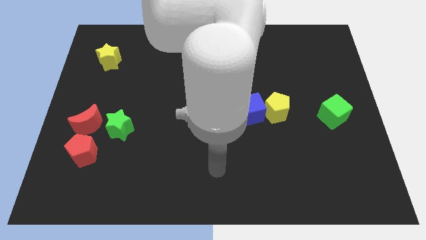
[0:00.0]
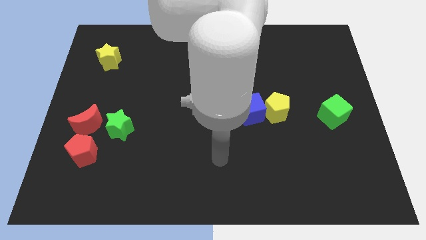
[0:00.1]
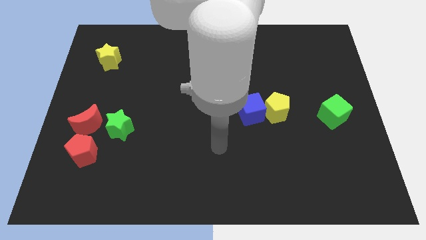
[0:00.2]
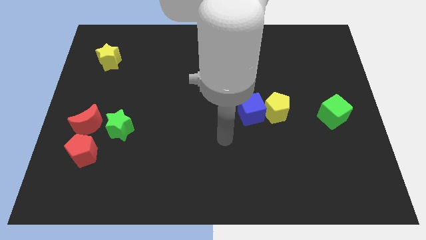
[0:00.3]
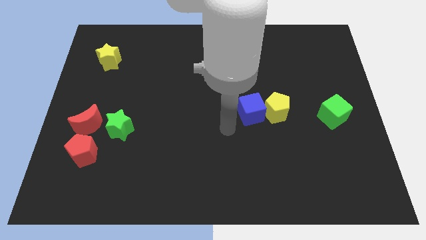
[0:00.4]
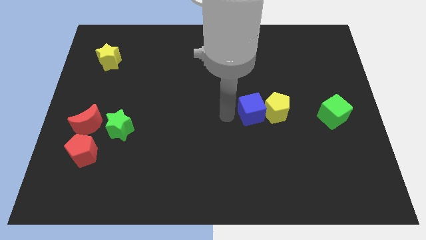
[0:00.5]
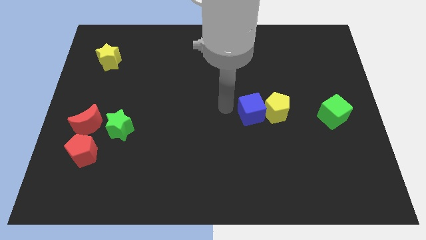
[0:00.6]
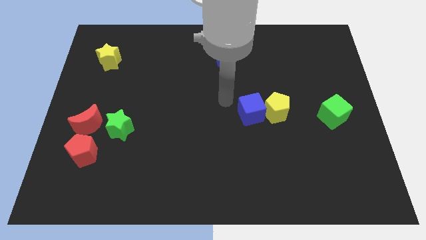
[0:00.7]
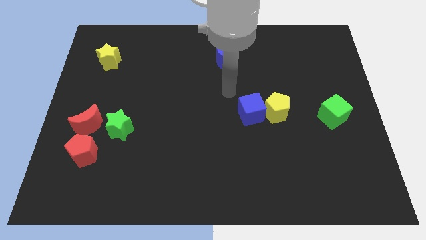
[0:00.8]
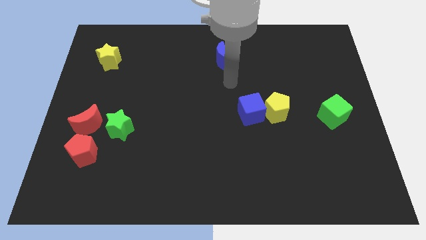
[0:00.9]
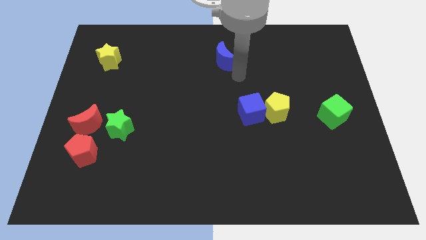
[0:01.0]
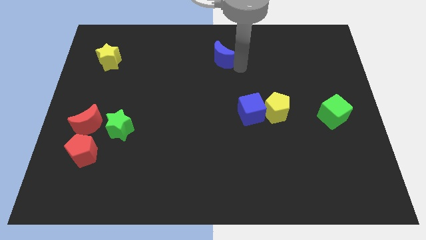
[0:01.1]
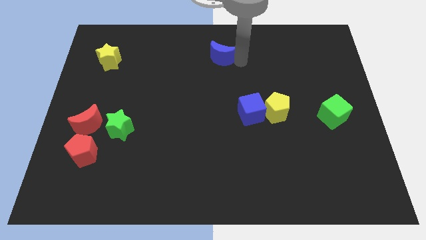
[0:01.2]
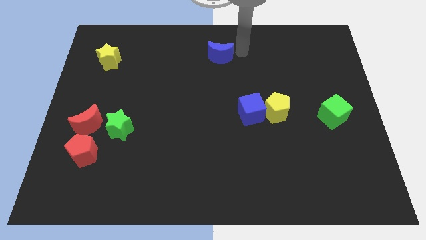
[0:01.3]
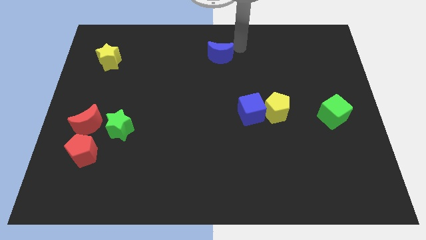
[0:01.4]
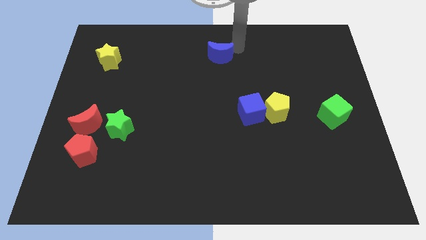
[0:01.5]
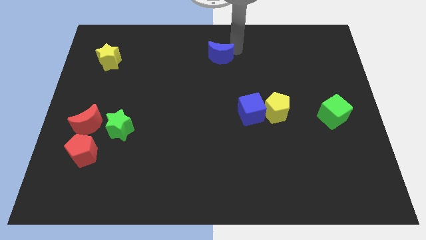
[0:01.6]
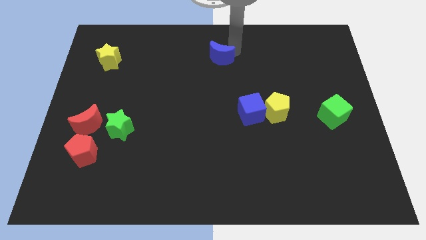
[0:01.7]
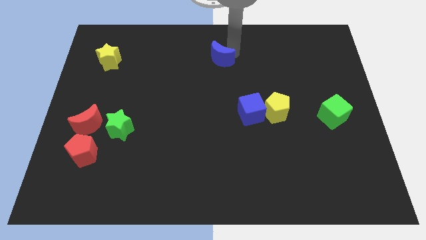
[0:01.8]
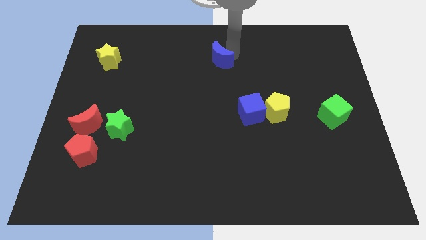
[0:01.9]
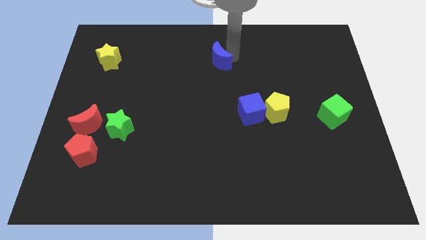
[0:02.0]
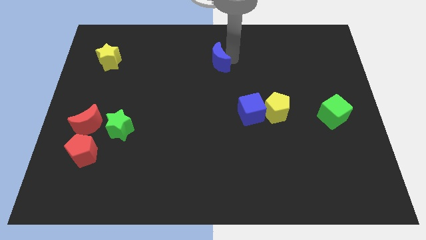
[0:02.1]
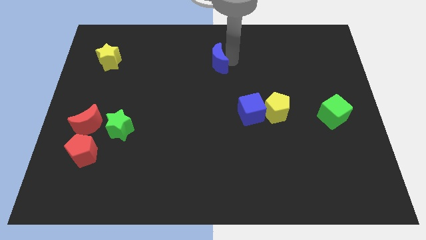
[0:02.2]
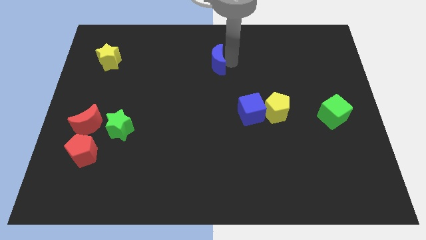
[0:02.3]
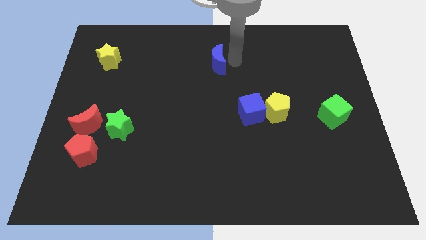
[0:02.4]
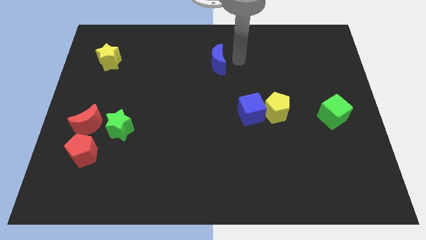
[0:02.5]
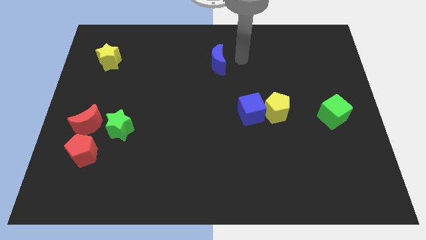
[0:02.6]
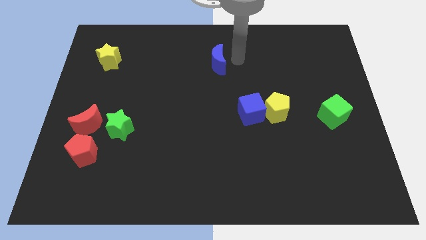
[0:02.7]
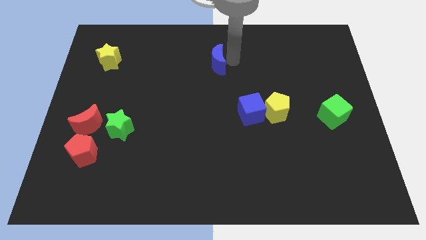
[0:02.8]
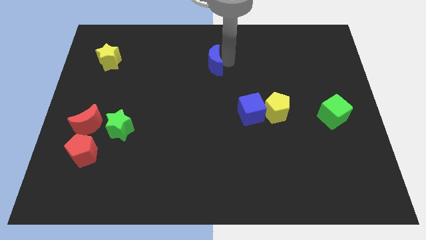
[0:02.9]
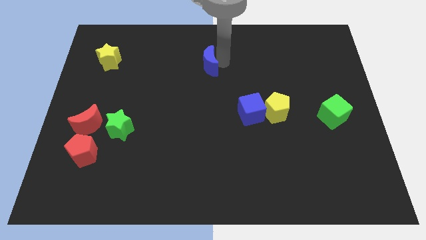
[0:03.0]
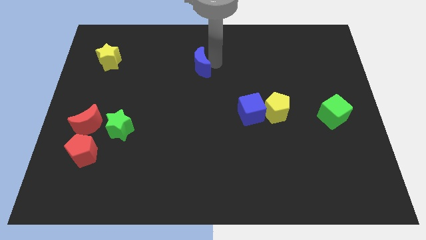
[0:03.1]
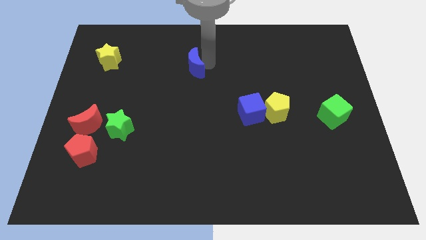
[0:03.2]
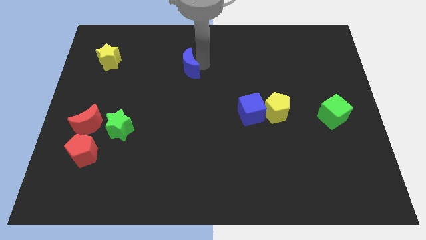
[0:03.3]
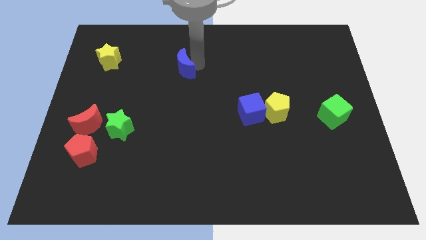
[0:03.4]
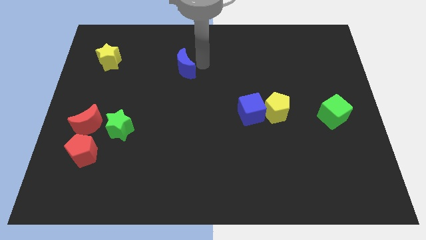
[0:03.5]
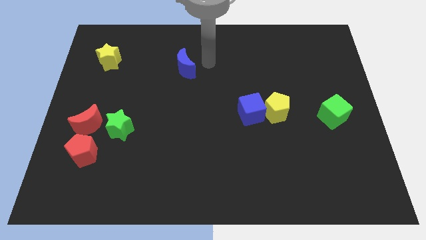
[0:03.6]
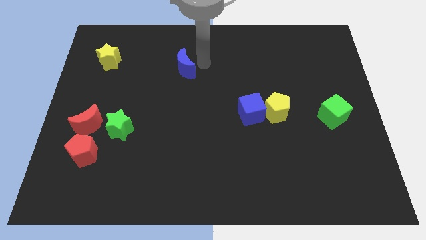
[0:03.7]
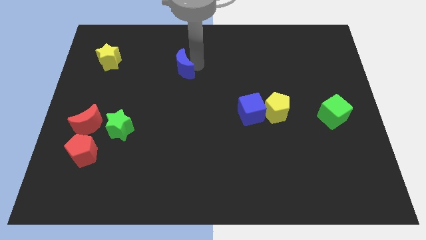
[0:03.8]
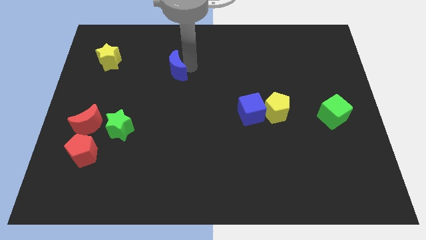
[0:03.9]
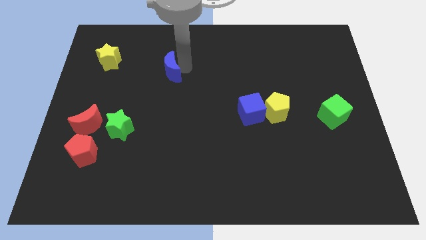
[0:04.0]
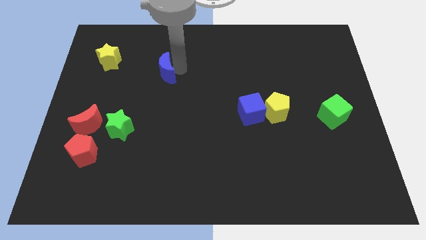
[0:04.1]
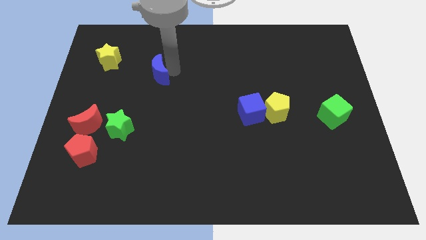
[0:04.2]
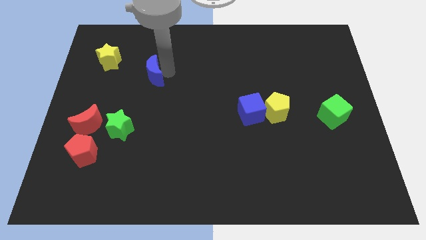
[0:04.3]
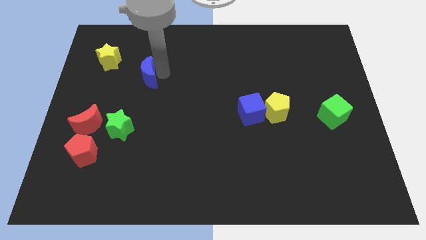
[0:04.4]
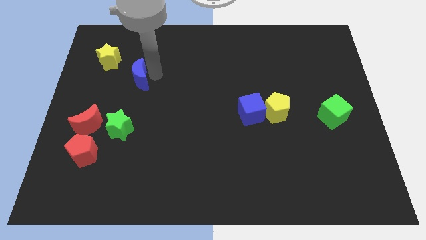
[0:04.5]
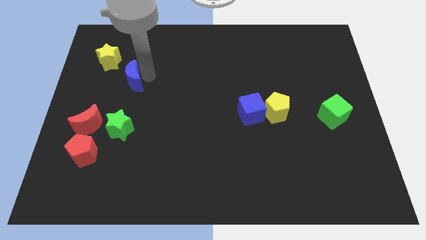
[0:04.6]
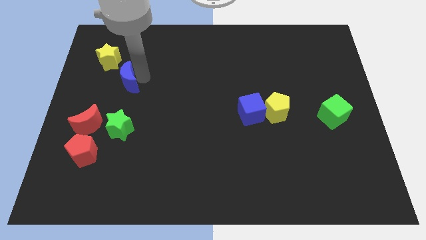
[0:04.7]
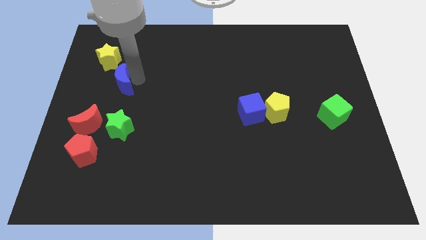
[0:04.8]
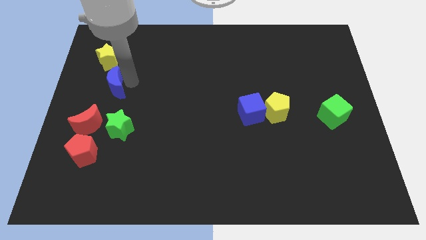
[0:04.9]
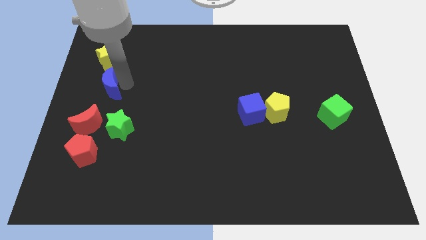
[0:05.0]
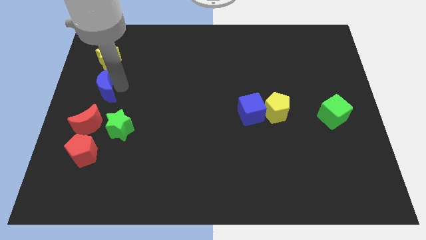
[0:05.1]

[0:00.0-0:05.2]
put the blue moon to the left side of the board
